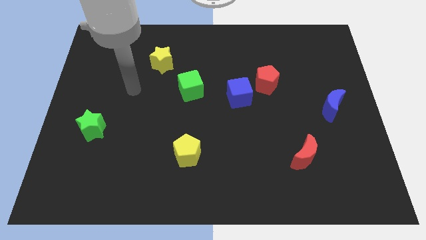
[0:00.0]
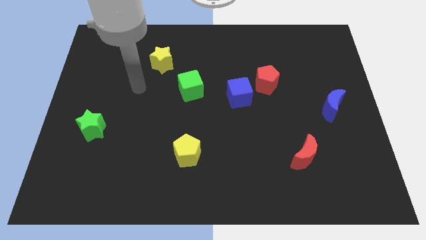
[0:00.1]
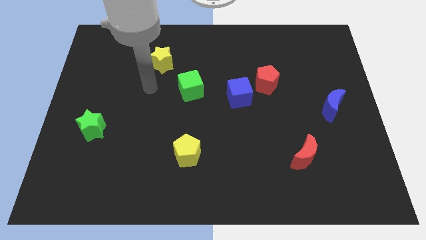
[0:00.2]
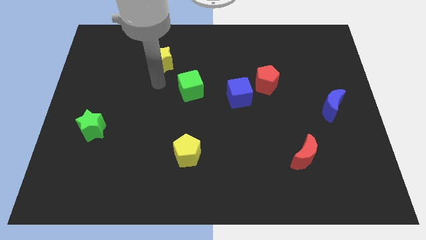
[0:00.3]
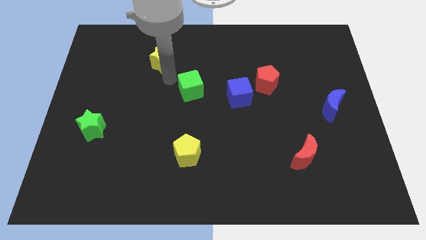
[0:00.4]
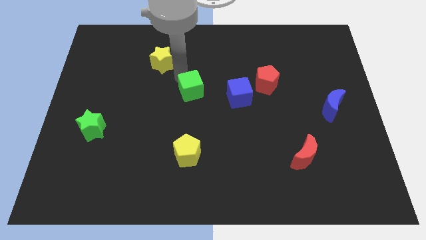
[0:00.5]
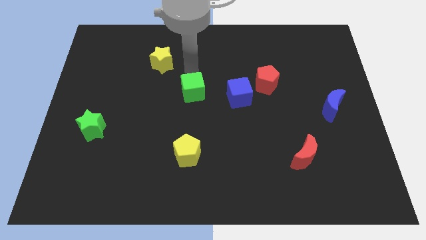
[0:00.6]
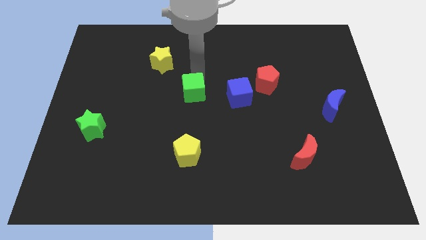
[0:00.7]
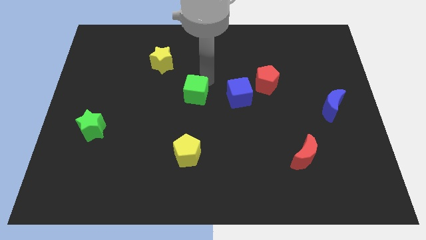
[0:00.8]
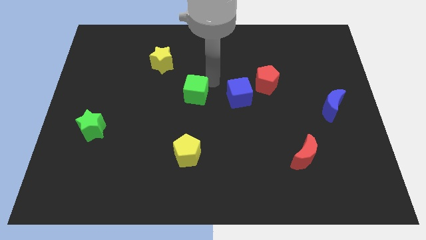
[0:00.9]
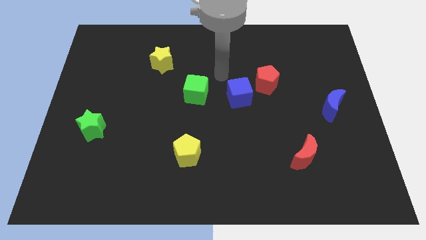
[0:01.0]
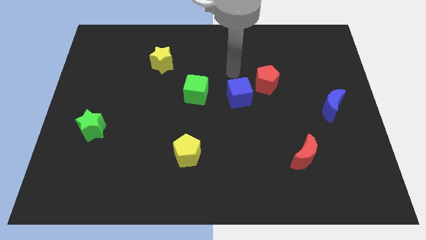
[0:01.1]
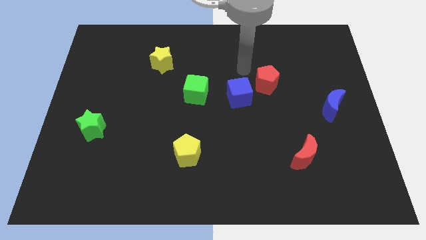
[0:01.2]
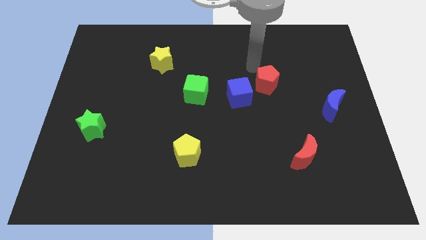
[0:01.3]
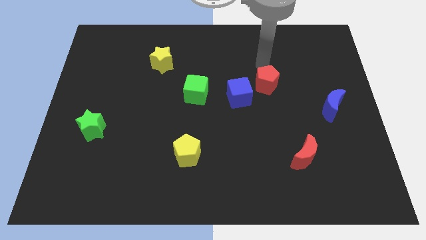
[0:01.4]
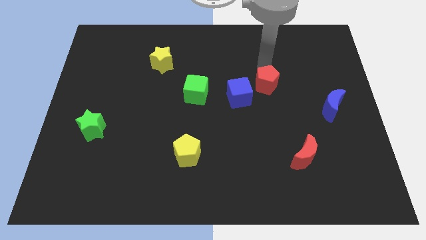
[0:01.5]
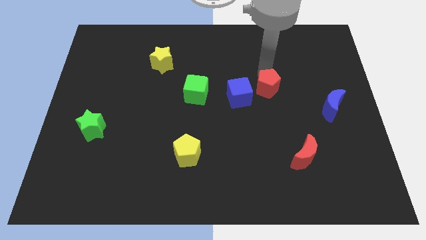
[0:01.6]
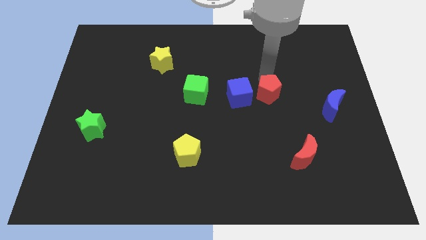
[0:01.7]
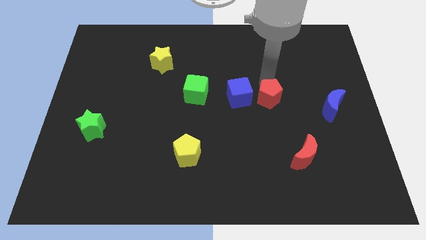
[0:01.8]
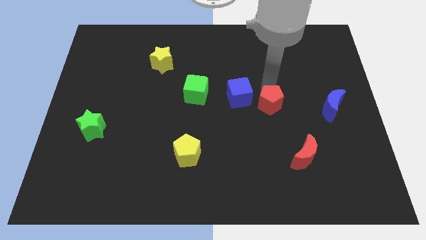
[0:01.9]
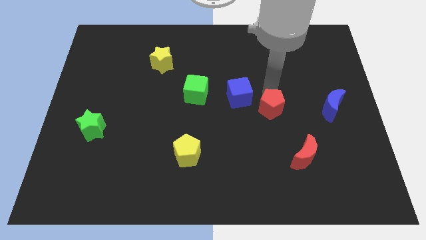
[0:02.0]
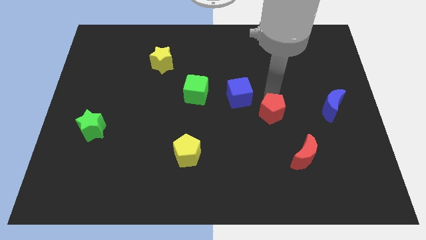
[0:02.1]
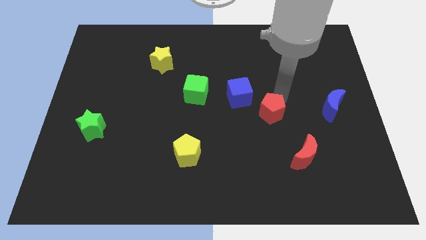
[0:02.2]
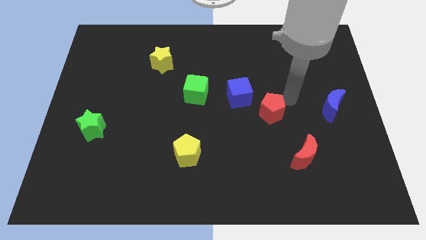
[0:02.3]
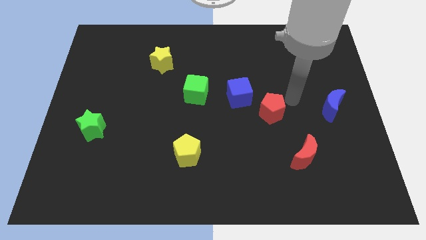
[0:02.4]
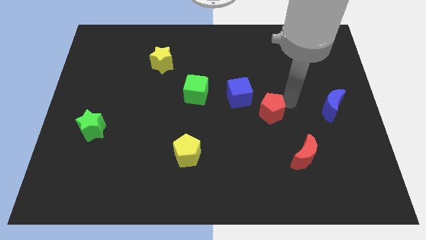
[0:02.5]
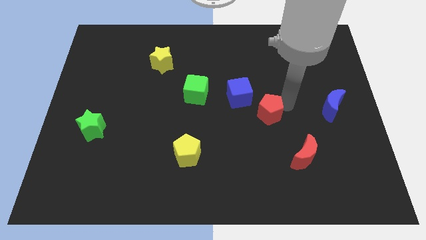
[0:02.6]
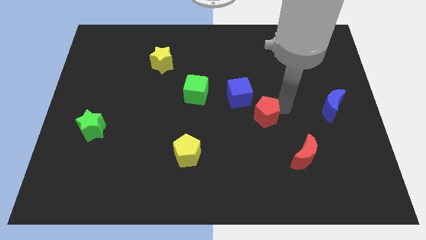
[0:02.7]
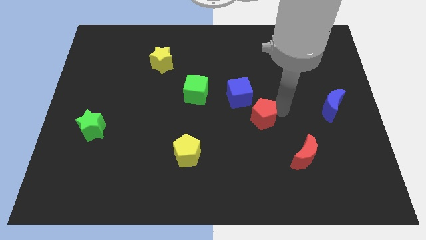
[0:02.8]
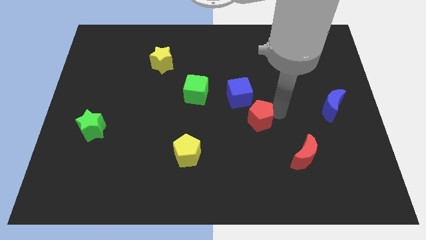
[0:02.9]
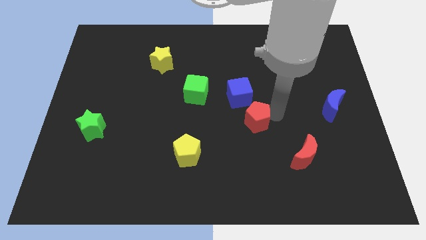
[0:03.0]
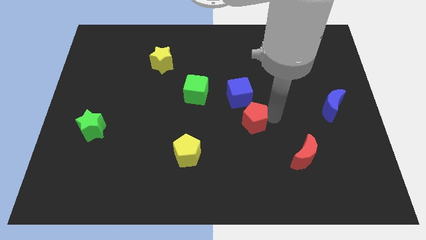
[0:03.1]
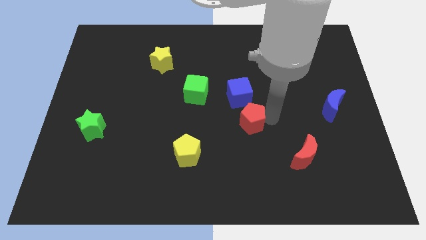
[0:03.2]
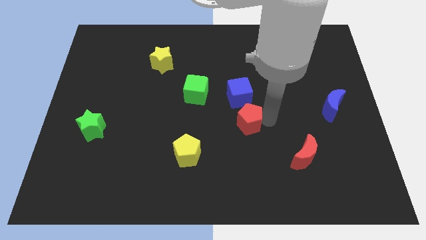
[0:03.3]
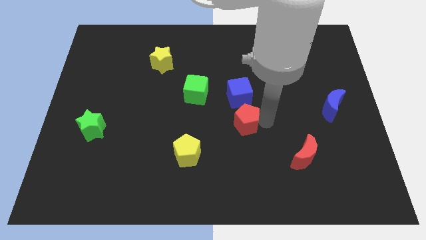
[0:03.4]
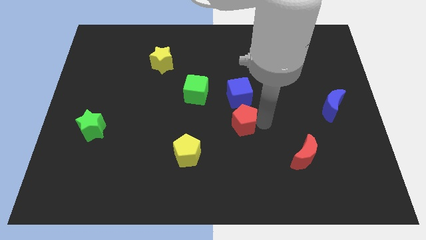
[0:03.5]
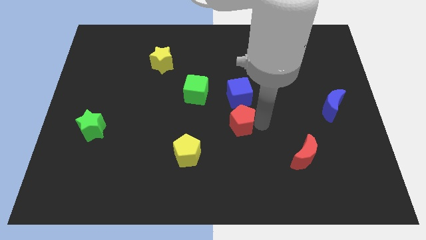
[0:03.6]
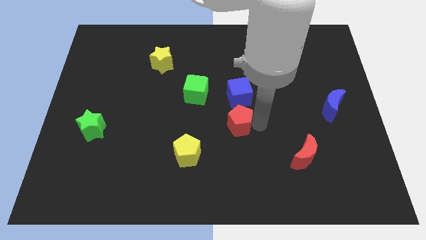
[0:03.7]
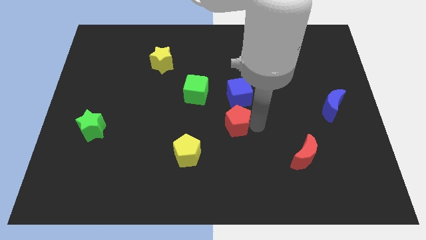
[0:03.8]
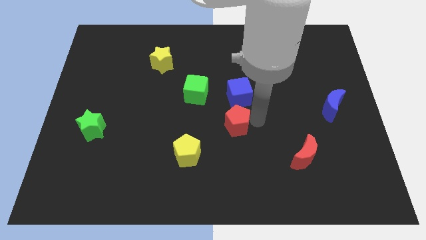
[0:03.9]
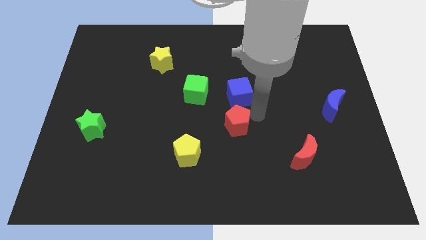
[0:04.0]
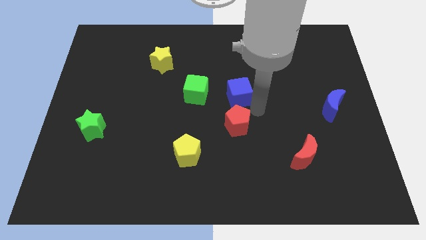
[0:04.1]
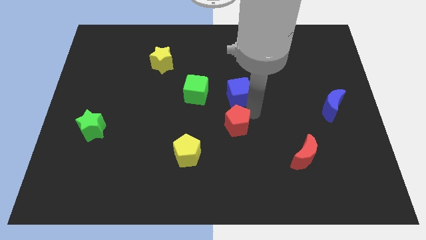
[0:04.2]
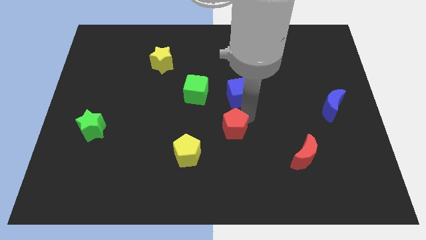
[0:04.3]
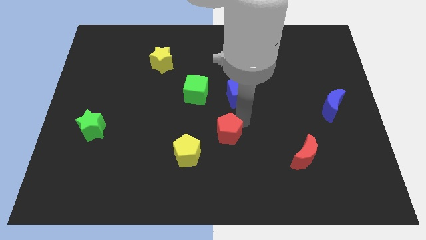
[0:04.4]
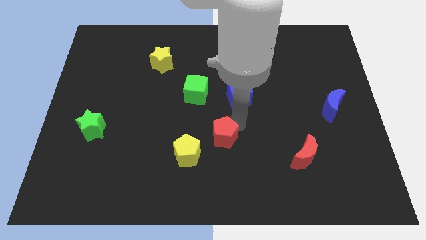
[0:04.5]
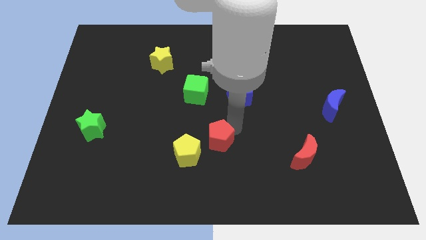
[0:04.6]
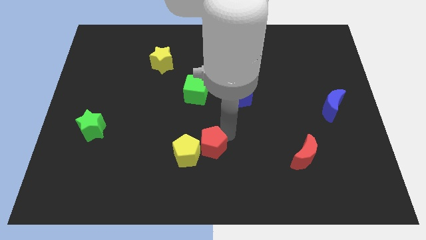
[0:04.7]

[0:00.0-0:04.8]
put the red pentagon towards the yellow pentagon

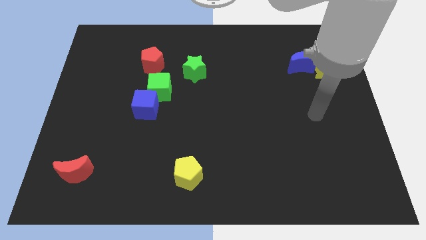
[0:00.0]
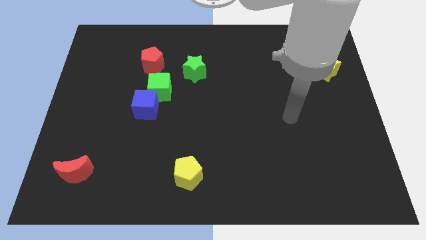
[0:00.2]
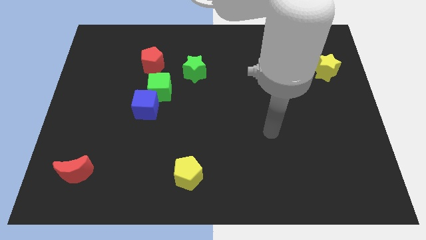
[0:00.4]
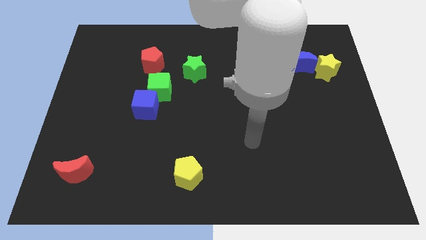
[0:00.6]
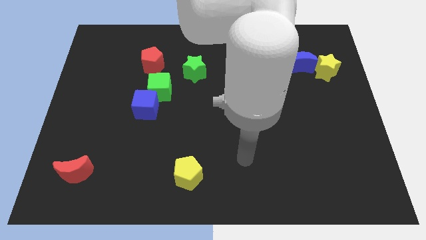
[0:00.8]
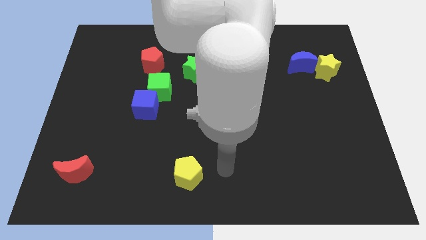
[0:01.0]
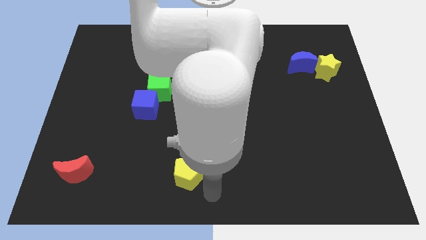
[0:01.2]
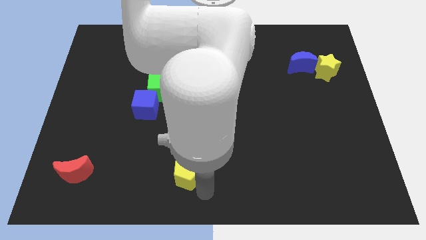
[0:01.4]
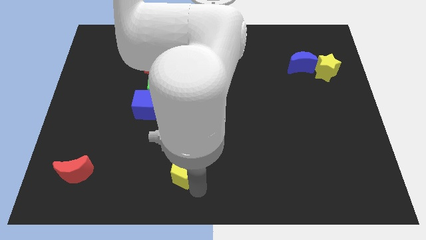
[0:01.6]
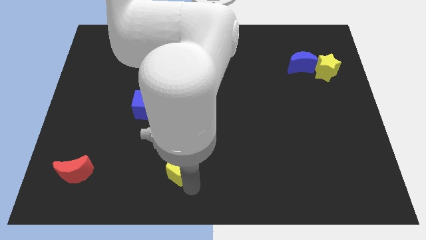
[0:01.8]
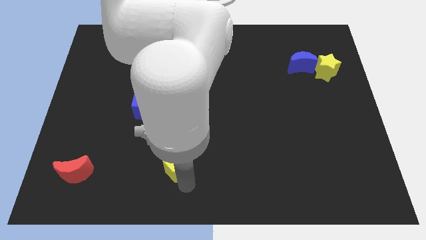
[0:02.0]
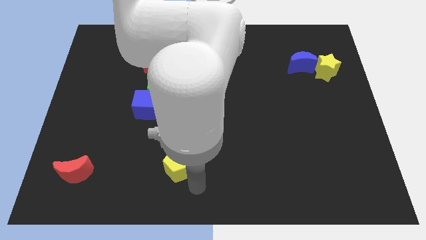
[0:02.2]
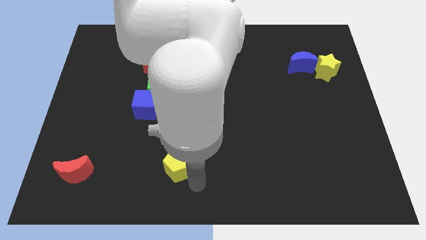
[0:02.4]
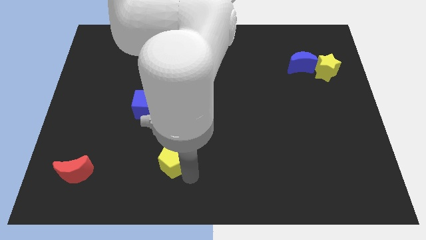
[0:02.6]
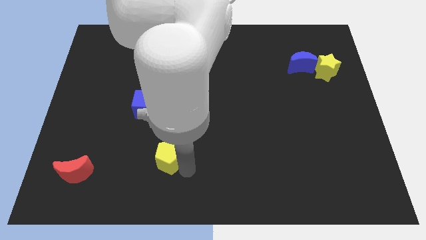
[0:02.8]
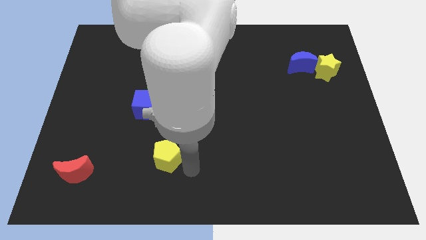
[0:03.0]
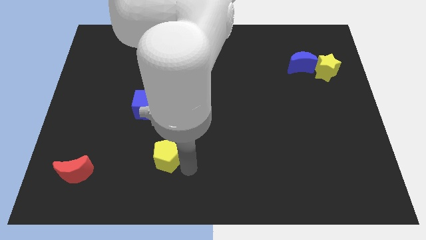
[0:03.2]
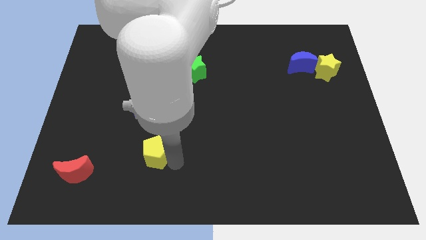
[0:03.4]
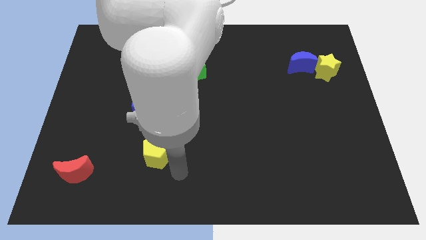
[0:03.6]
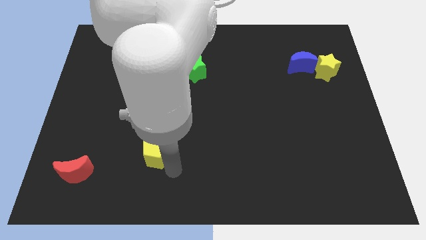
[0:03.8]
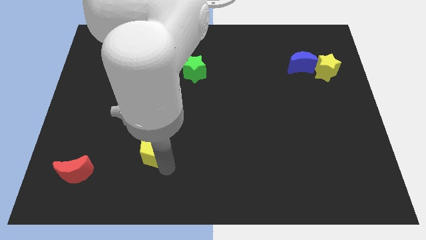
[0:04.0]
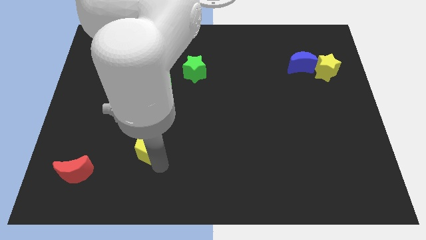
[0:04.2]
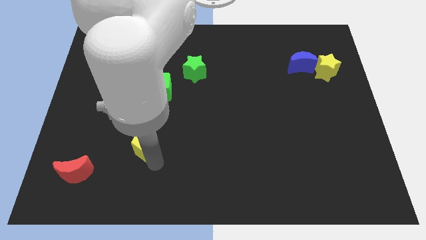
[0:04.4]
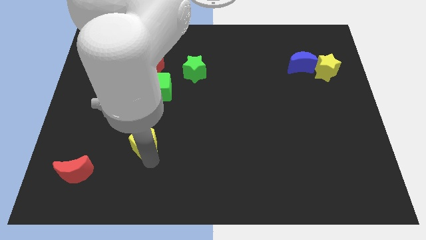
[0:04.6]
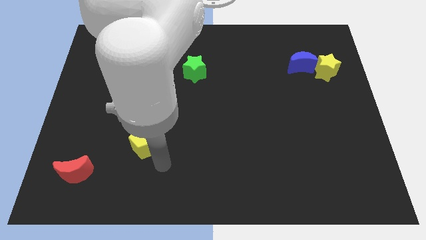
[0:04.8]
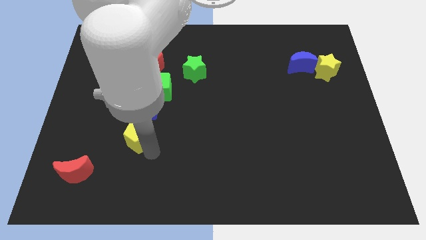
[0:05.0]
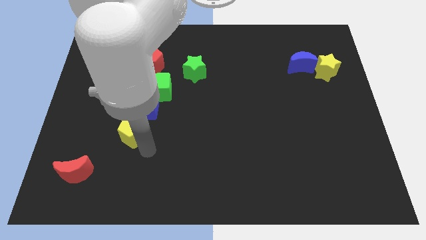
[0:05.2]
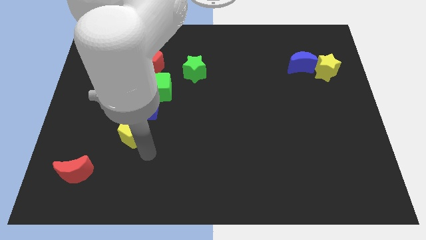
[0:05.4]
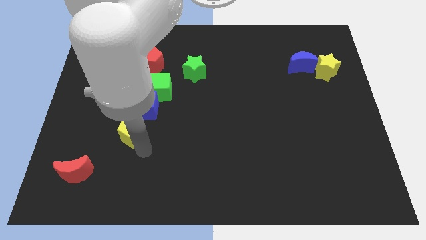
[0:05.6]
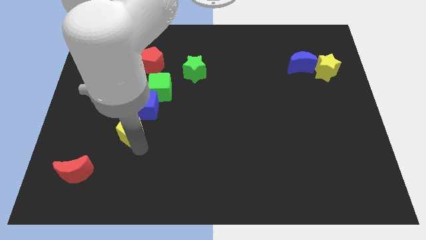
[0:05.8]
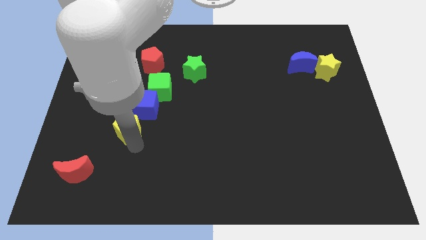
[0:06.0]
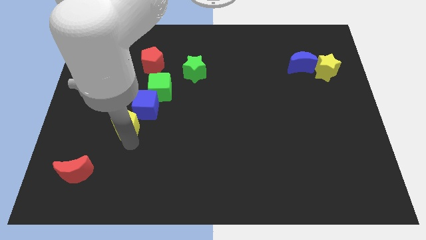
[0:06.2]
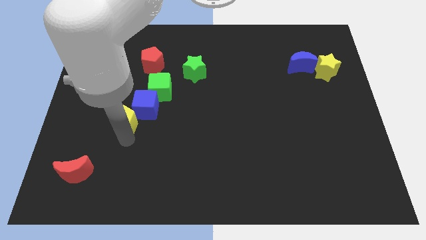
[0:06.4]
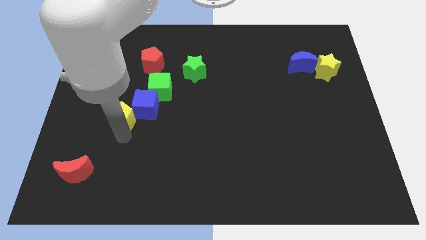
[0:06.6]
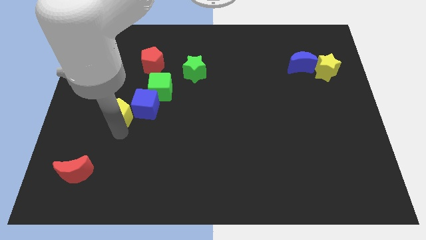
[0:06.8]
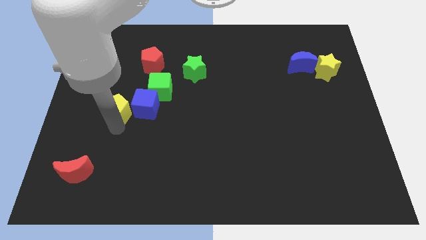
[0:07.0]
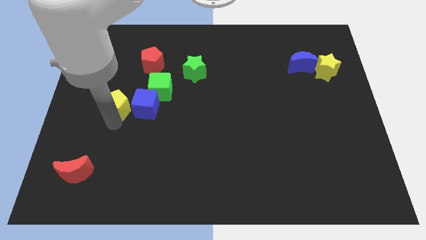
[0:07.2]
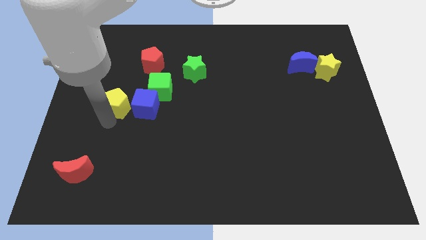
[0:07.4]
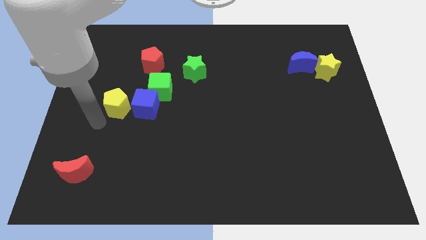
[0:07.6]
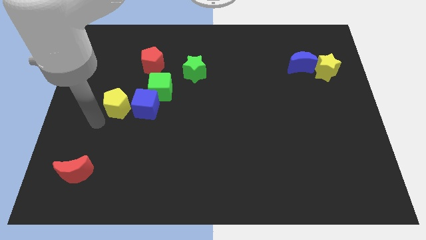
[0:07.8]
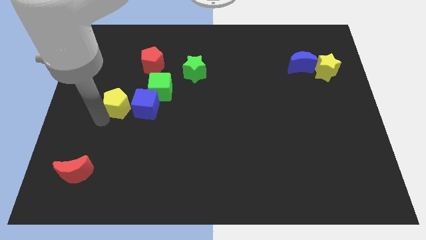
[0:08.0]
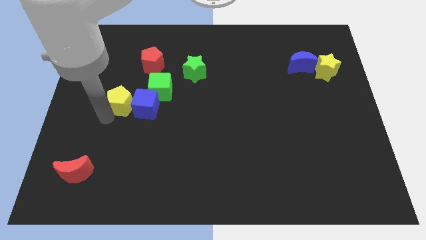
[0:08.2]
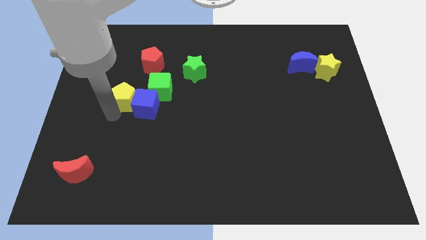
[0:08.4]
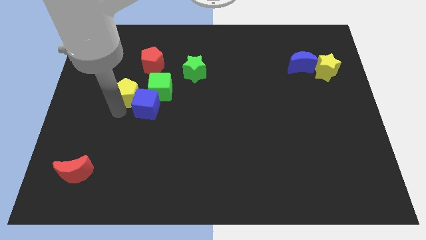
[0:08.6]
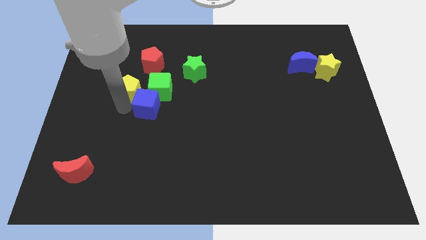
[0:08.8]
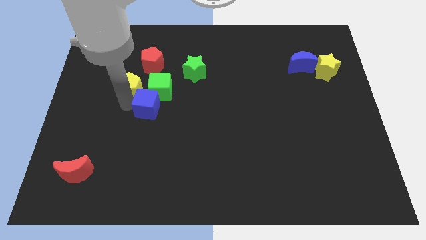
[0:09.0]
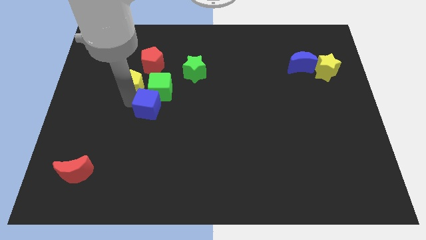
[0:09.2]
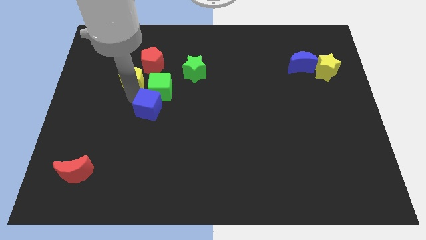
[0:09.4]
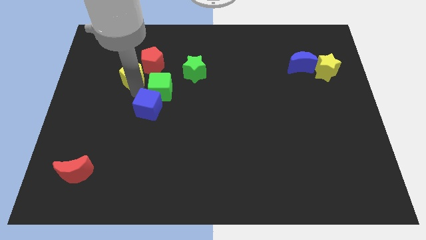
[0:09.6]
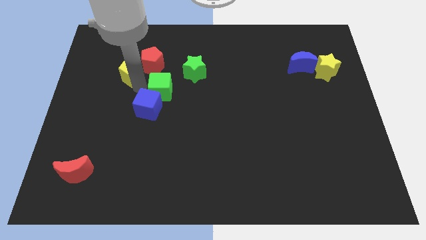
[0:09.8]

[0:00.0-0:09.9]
put the yellow pentagon close to the red pentagon
